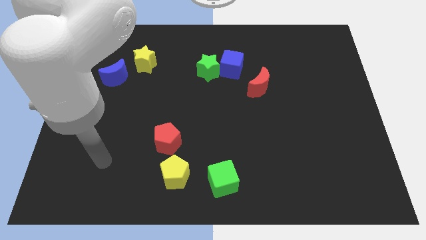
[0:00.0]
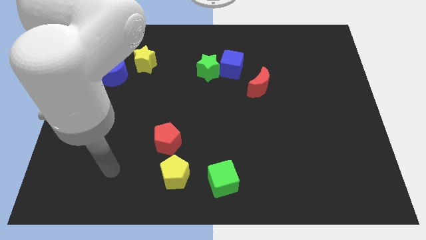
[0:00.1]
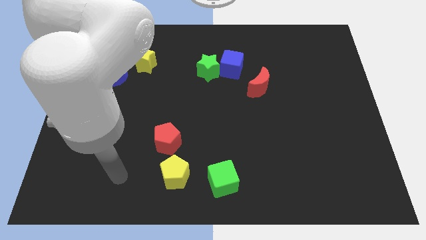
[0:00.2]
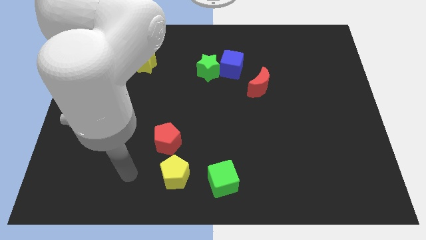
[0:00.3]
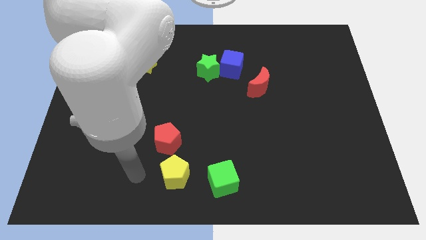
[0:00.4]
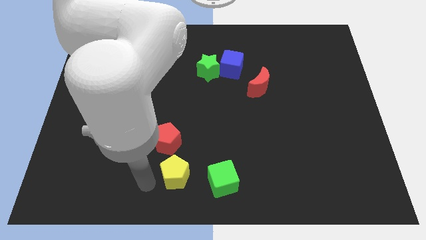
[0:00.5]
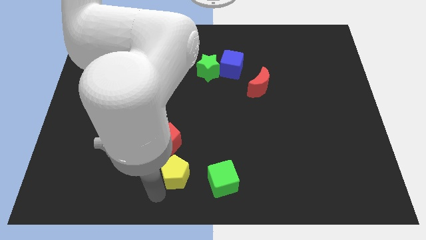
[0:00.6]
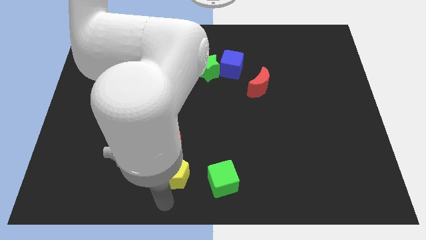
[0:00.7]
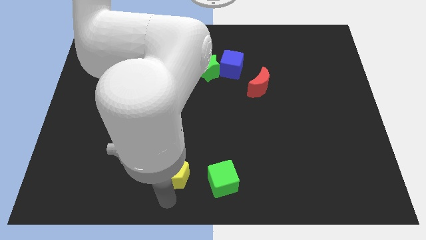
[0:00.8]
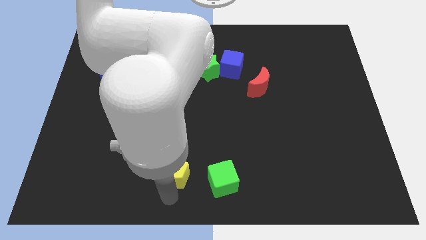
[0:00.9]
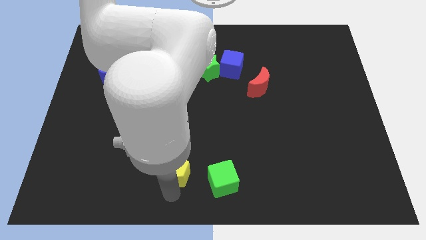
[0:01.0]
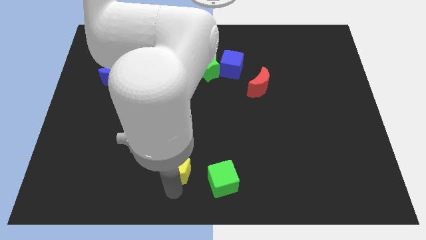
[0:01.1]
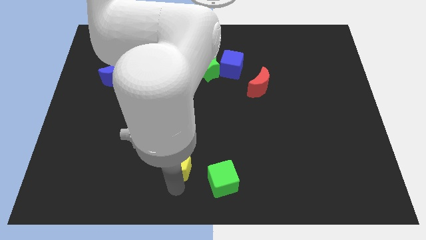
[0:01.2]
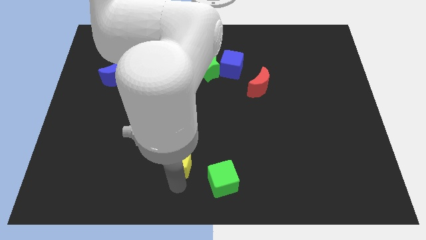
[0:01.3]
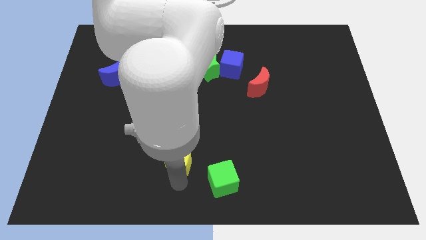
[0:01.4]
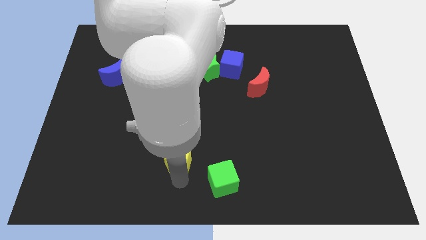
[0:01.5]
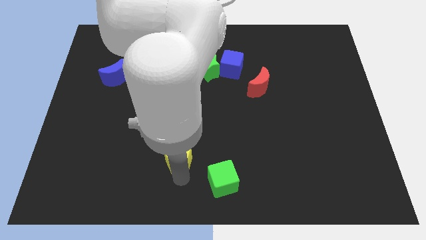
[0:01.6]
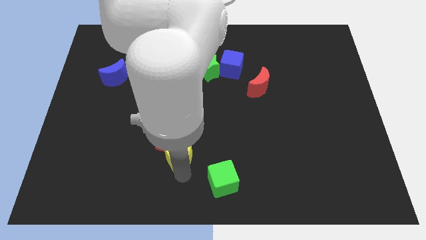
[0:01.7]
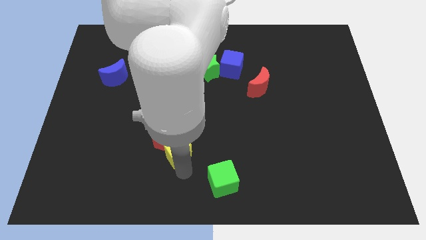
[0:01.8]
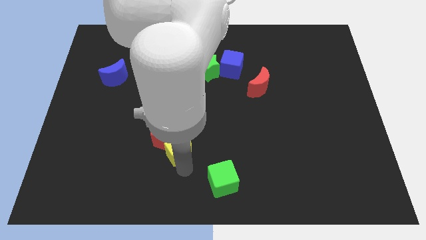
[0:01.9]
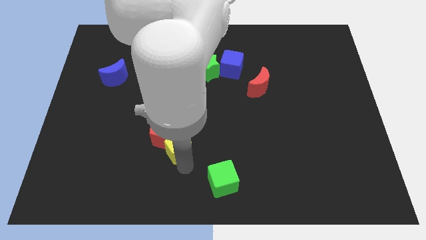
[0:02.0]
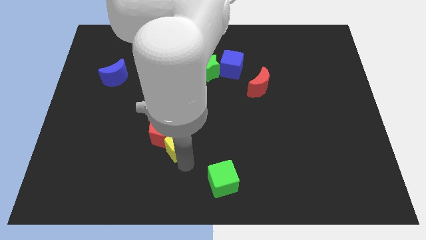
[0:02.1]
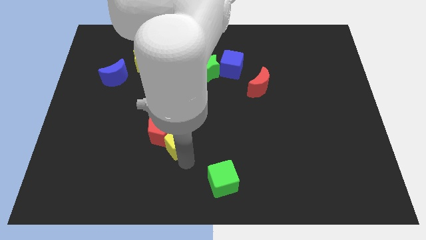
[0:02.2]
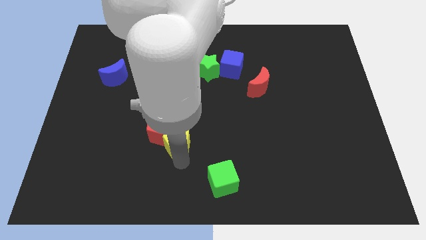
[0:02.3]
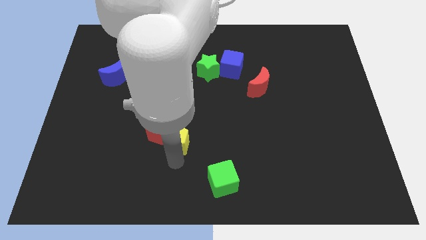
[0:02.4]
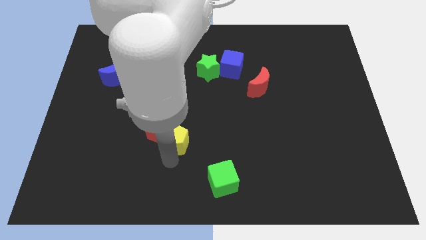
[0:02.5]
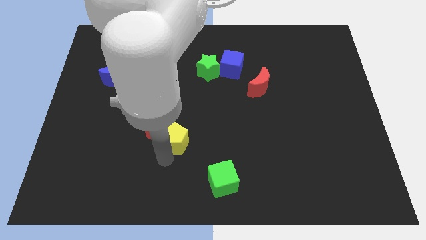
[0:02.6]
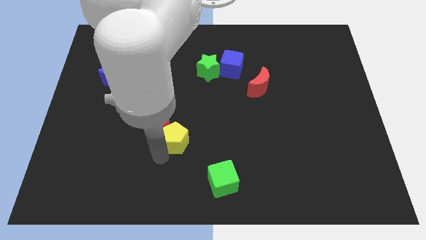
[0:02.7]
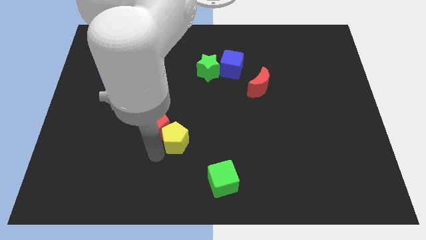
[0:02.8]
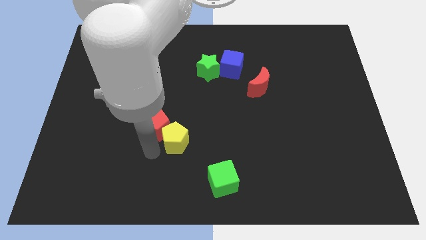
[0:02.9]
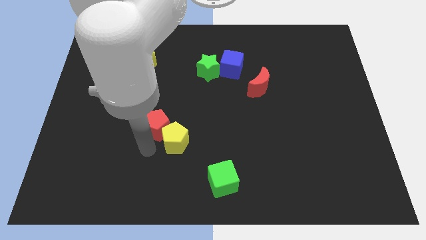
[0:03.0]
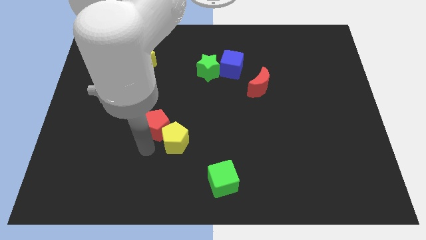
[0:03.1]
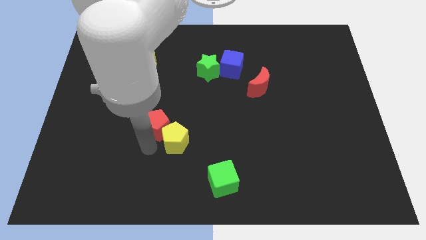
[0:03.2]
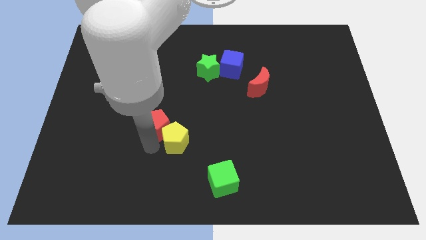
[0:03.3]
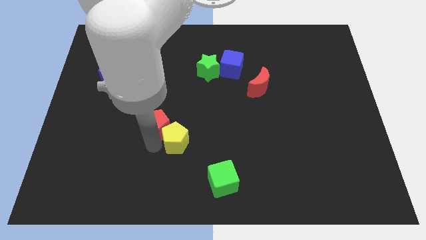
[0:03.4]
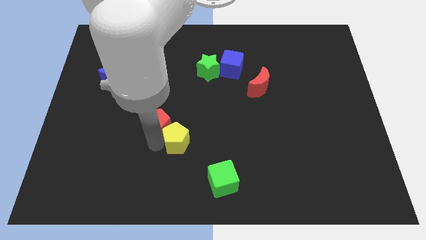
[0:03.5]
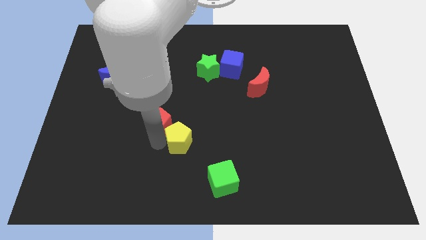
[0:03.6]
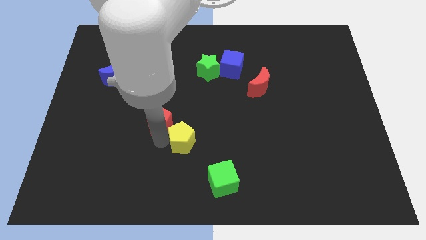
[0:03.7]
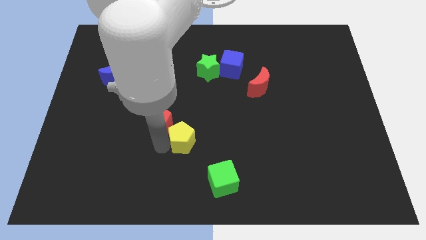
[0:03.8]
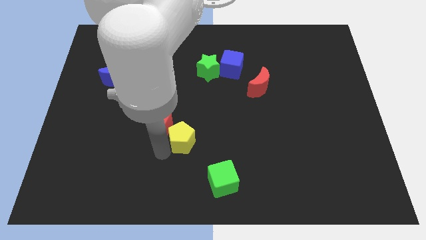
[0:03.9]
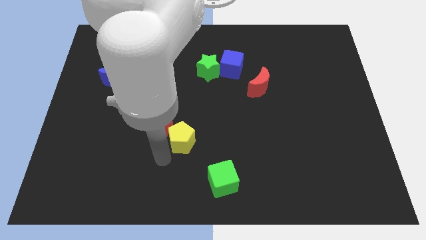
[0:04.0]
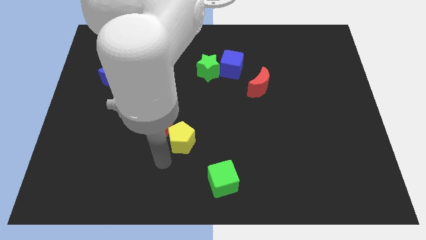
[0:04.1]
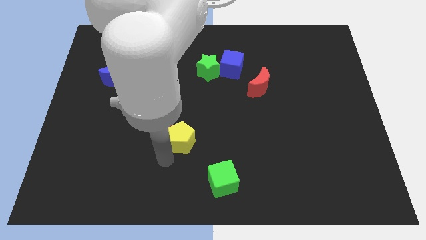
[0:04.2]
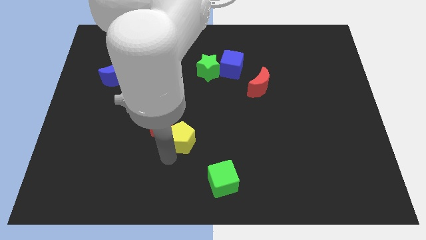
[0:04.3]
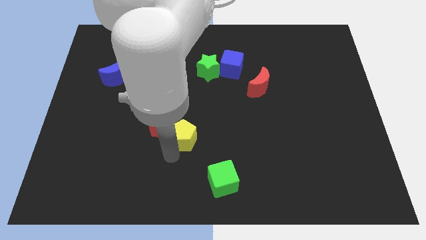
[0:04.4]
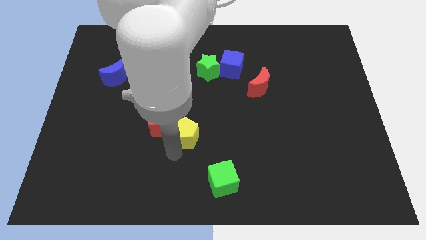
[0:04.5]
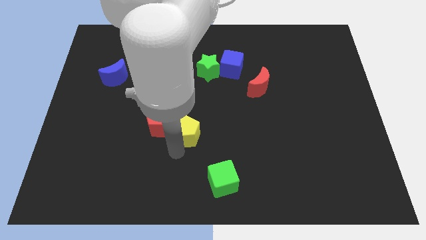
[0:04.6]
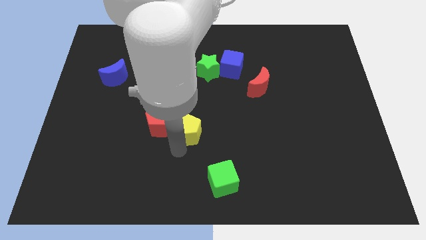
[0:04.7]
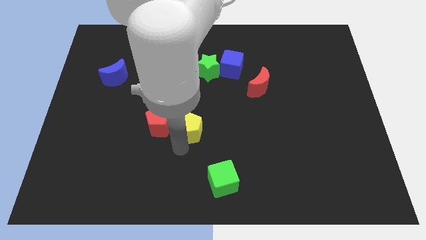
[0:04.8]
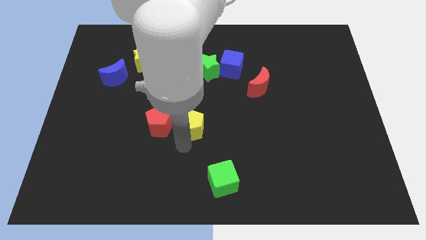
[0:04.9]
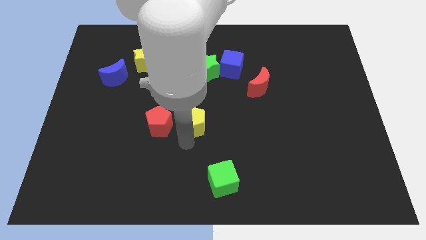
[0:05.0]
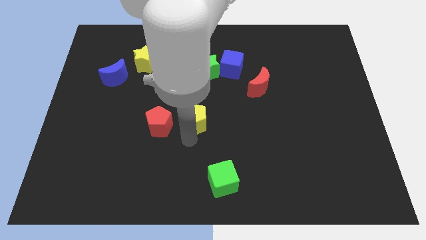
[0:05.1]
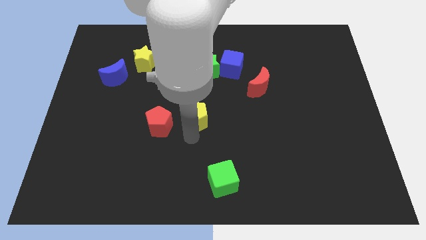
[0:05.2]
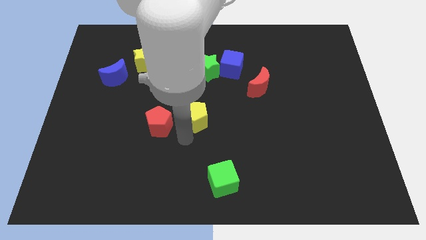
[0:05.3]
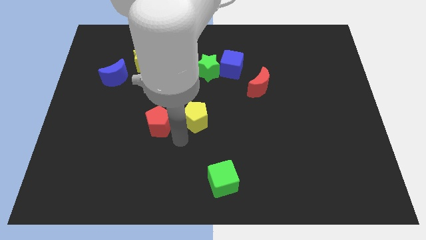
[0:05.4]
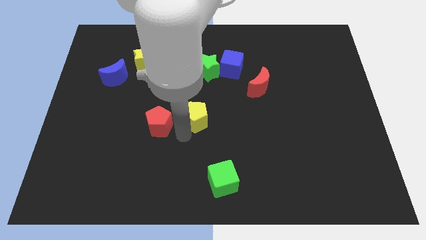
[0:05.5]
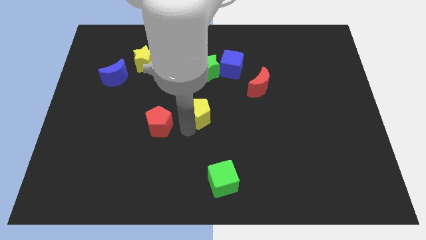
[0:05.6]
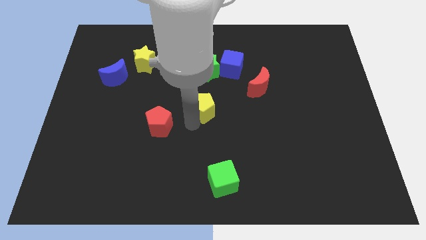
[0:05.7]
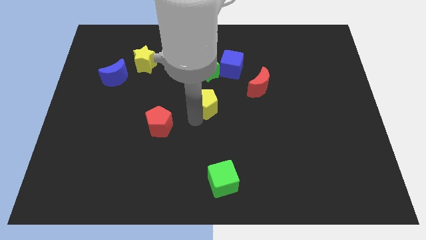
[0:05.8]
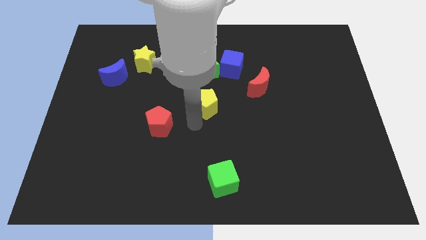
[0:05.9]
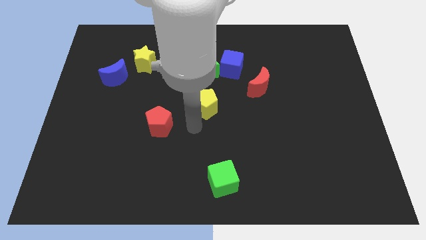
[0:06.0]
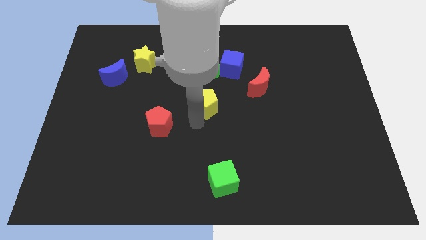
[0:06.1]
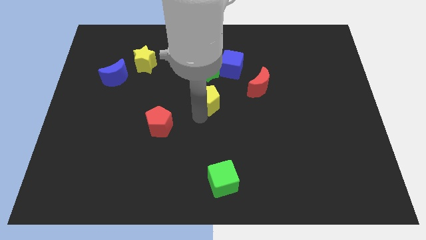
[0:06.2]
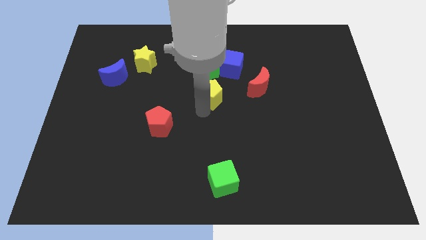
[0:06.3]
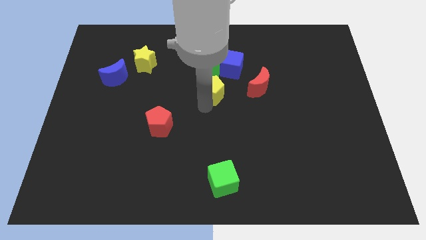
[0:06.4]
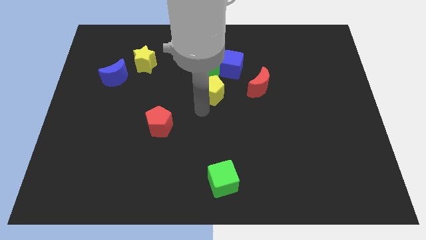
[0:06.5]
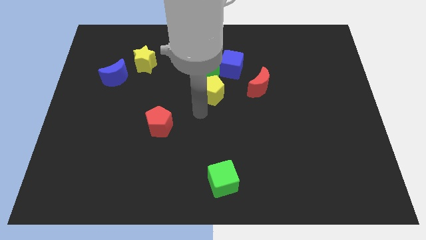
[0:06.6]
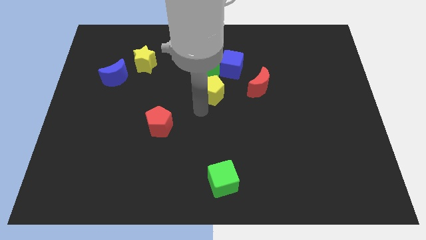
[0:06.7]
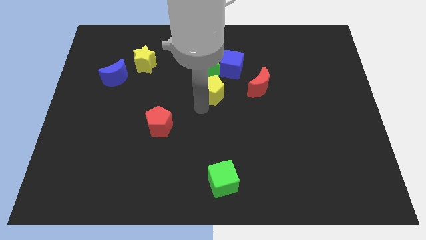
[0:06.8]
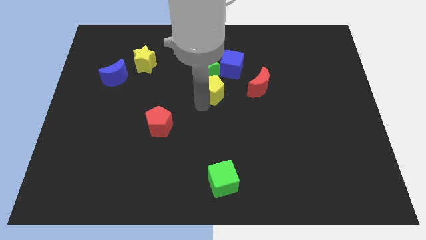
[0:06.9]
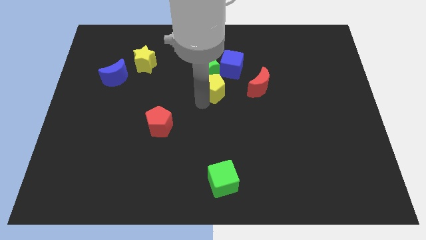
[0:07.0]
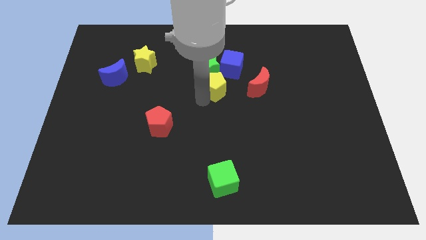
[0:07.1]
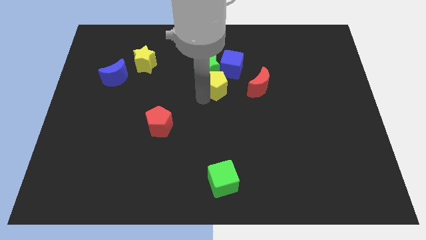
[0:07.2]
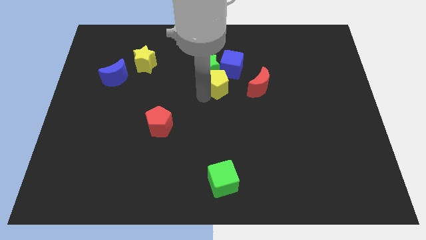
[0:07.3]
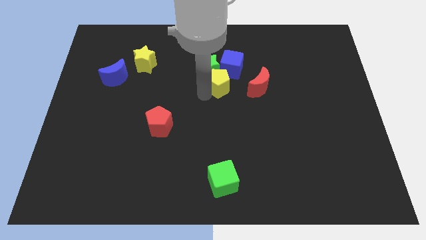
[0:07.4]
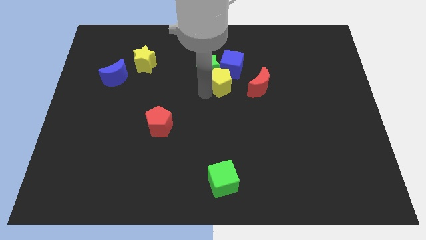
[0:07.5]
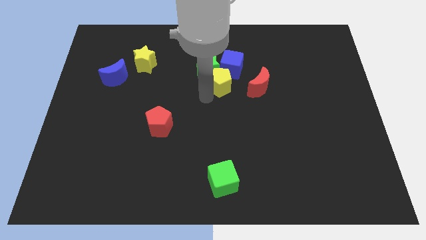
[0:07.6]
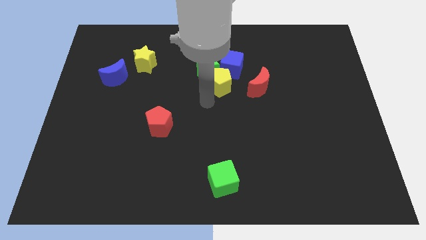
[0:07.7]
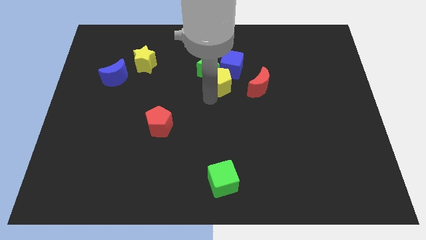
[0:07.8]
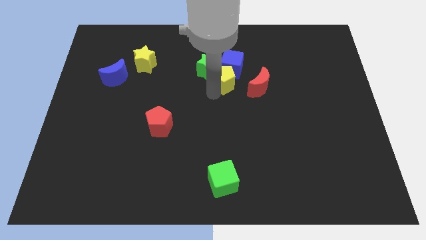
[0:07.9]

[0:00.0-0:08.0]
push the yellow pentagon next to the blue cube

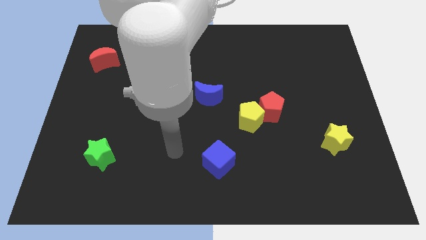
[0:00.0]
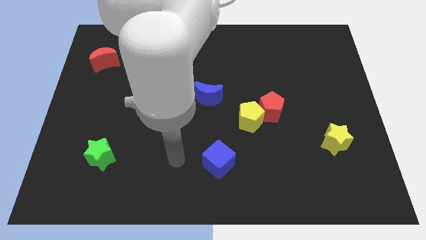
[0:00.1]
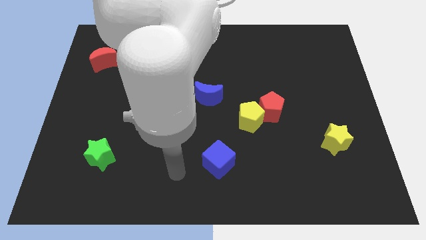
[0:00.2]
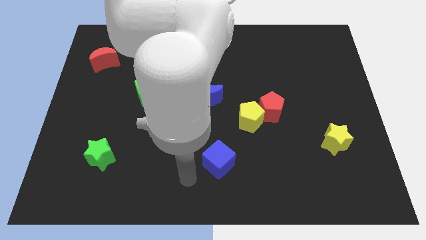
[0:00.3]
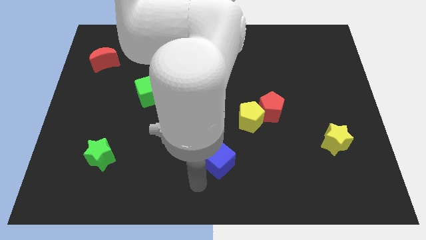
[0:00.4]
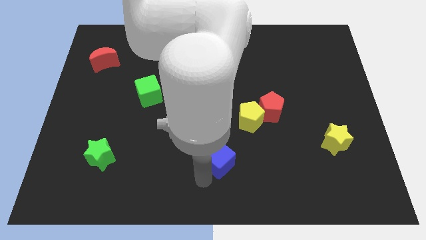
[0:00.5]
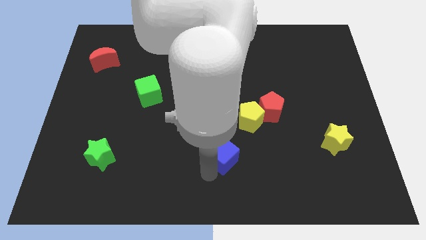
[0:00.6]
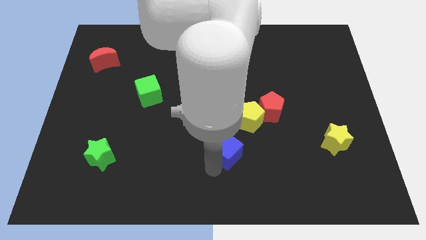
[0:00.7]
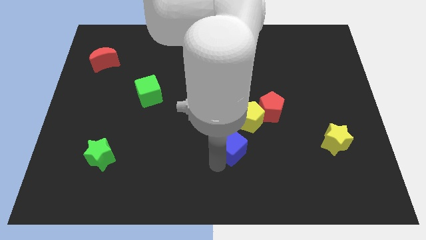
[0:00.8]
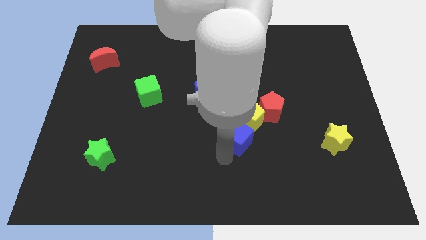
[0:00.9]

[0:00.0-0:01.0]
push the blue cube to the yellow pentagon
